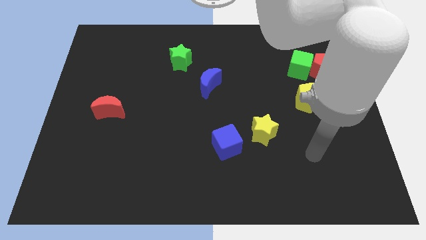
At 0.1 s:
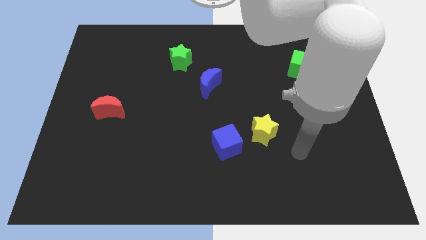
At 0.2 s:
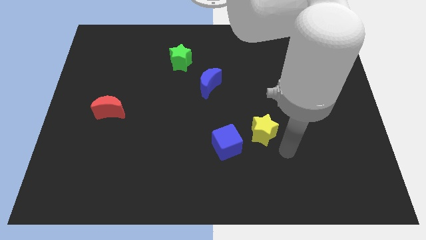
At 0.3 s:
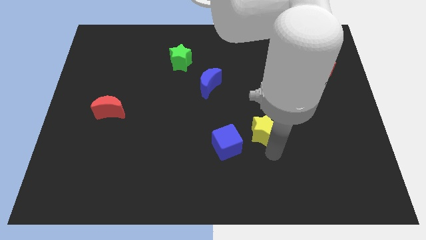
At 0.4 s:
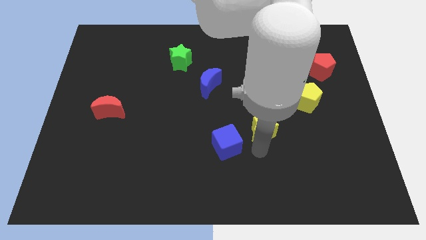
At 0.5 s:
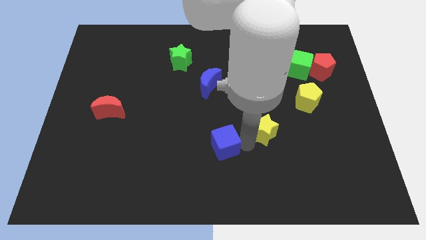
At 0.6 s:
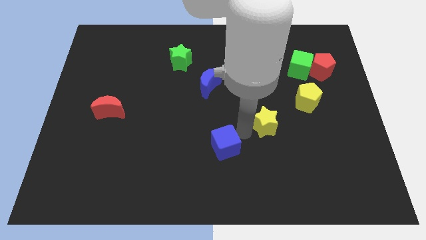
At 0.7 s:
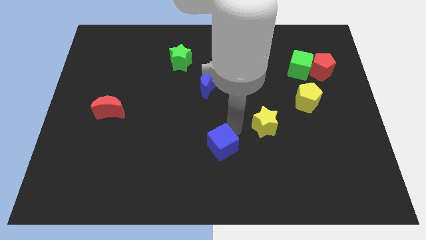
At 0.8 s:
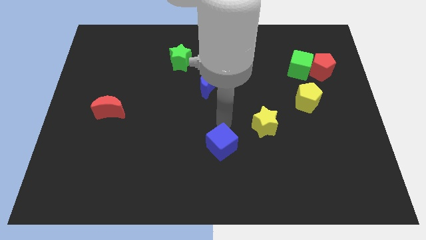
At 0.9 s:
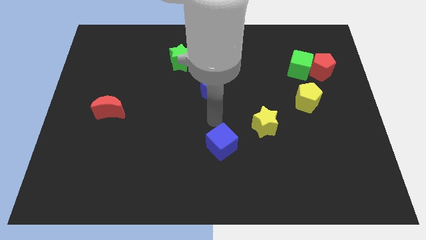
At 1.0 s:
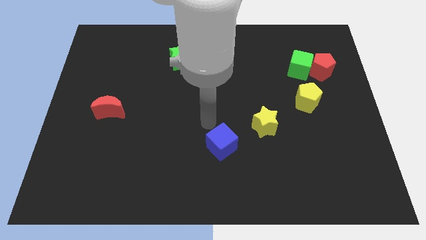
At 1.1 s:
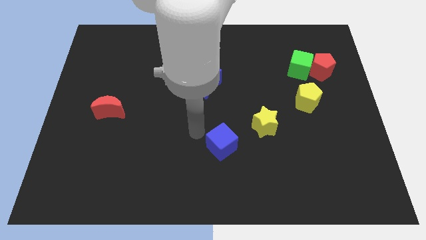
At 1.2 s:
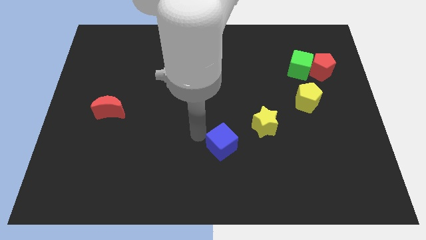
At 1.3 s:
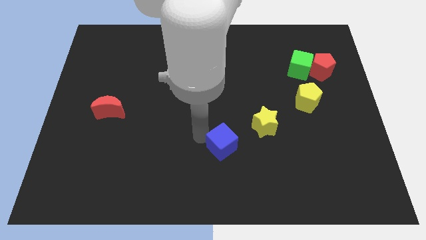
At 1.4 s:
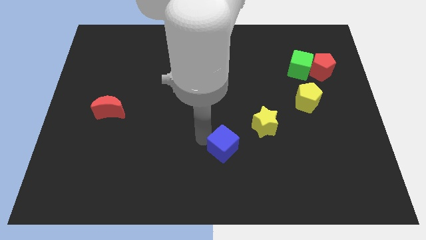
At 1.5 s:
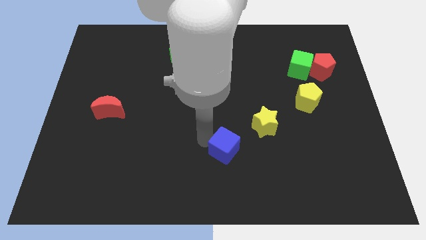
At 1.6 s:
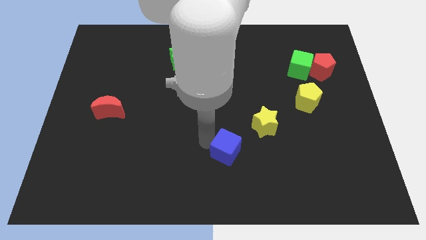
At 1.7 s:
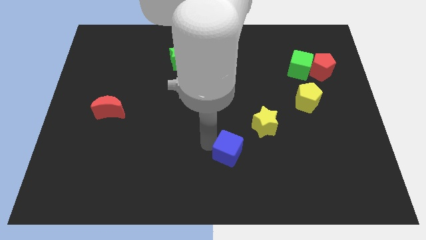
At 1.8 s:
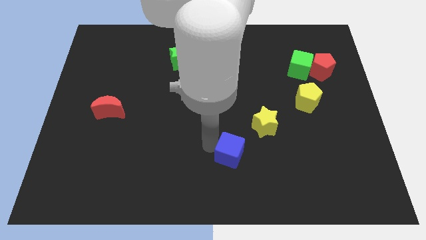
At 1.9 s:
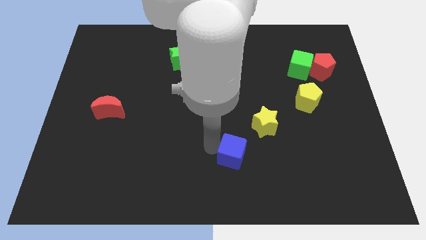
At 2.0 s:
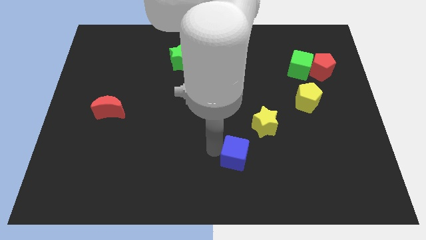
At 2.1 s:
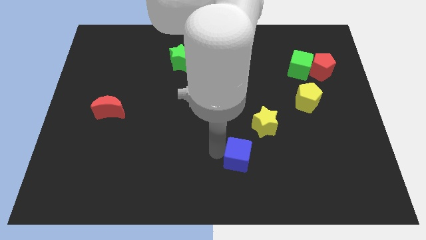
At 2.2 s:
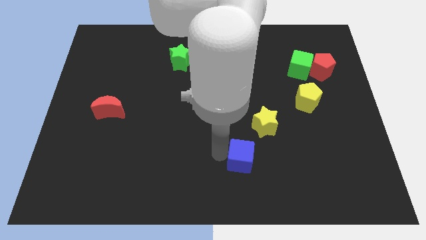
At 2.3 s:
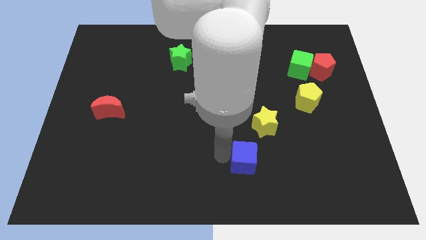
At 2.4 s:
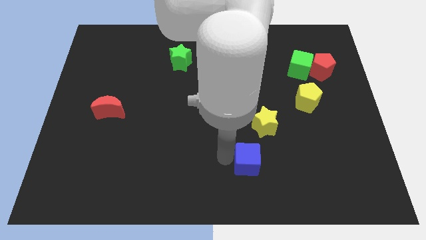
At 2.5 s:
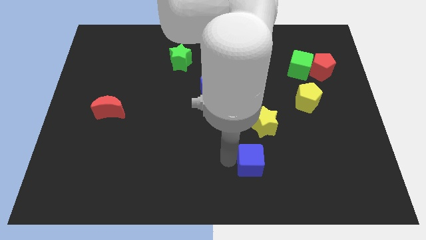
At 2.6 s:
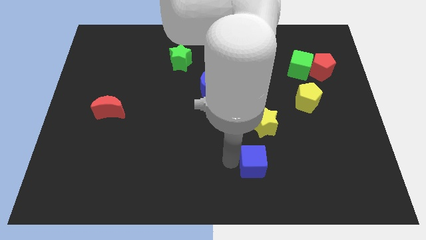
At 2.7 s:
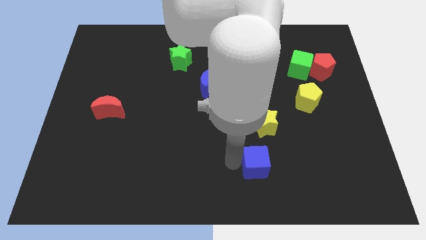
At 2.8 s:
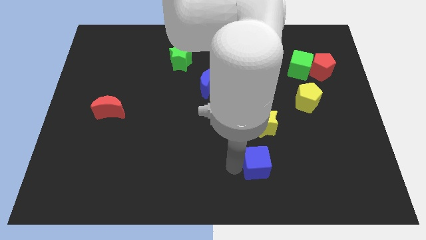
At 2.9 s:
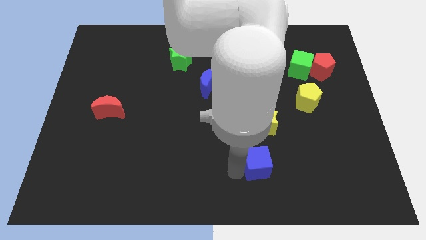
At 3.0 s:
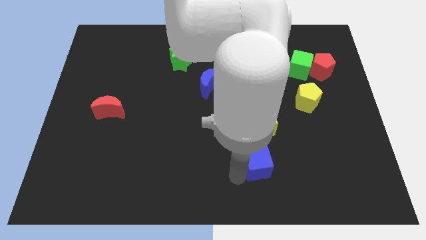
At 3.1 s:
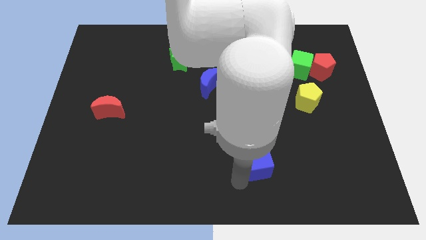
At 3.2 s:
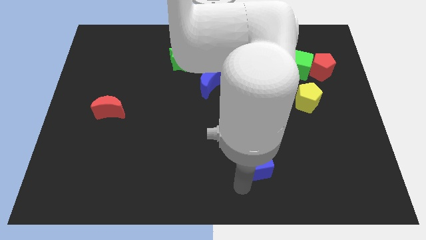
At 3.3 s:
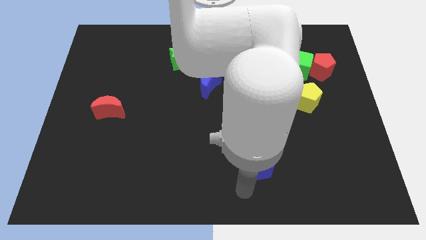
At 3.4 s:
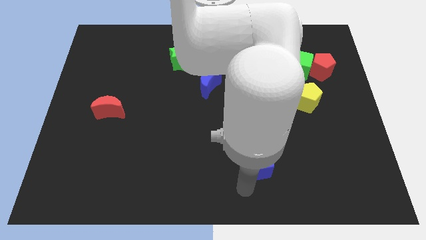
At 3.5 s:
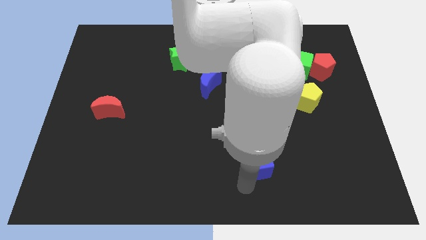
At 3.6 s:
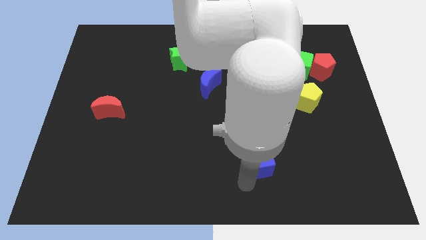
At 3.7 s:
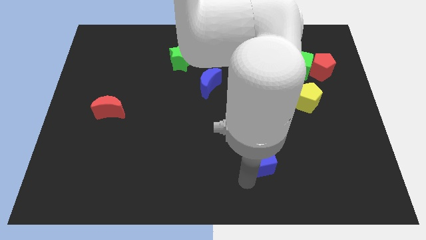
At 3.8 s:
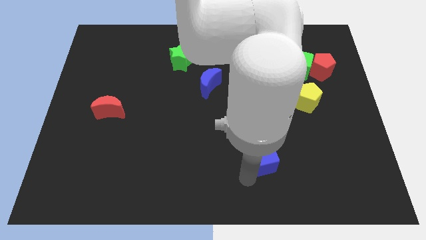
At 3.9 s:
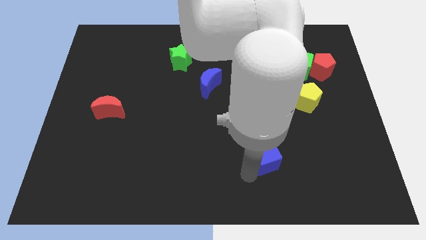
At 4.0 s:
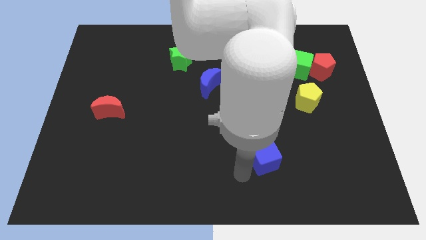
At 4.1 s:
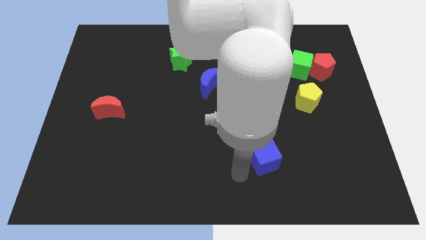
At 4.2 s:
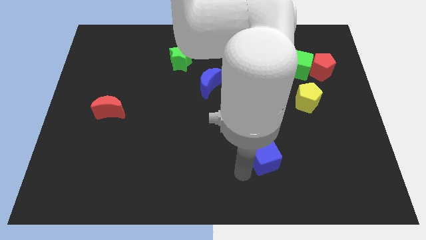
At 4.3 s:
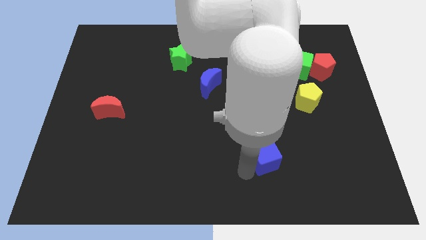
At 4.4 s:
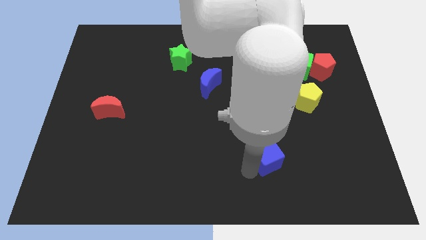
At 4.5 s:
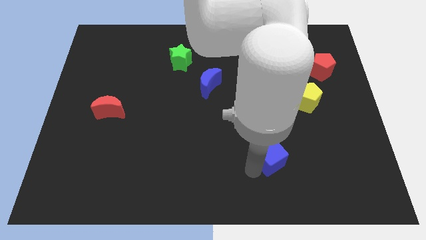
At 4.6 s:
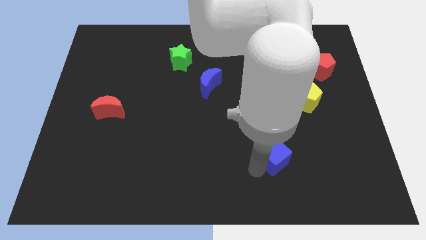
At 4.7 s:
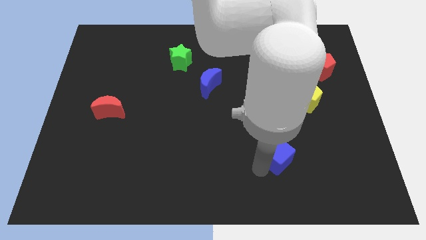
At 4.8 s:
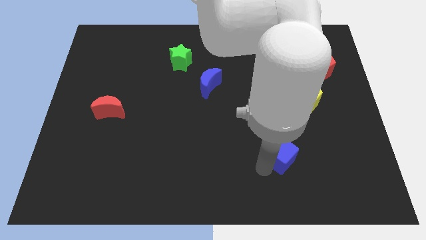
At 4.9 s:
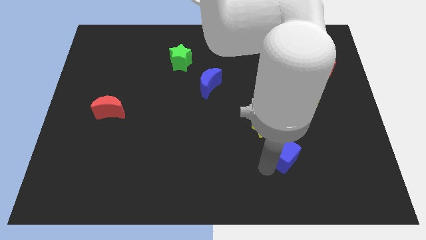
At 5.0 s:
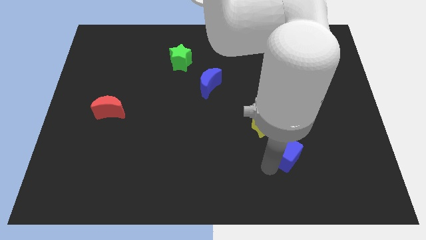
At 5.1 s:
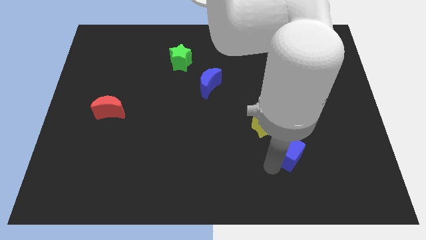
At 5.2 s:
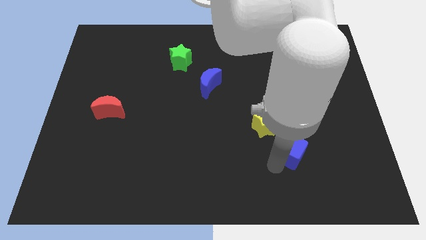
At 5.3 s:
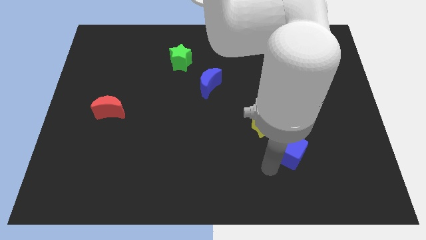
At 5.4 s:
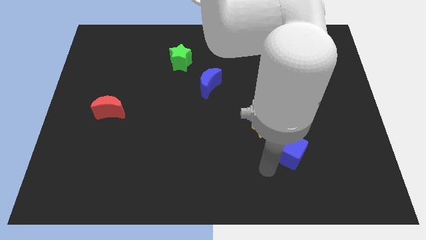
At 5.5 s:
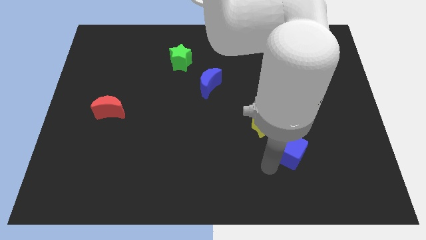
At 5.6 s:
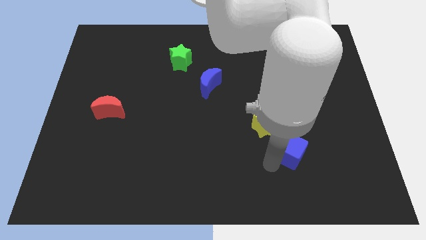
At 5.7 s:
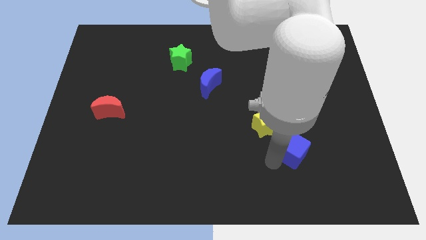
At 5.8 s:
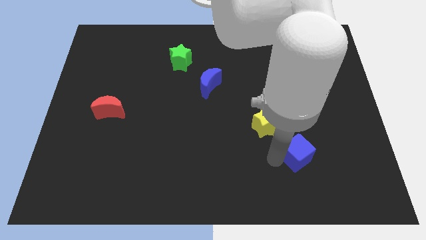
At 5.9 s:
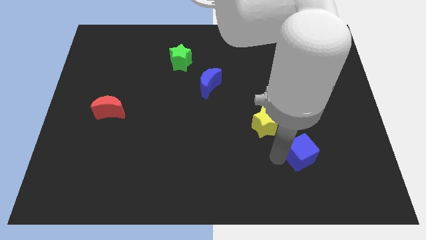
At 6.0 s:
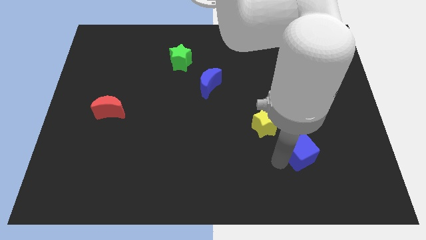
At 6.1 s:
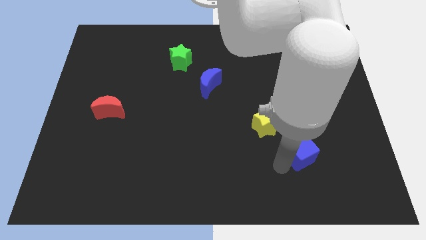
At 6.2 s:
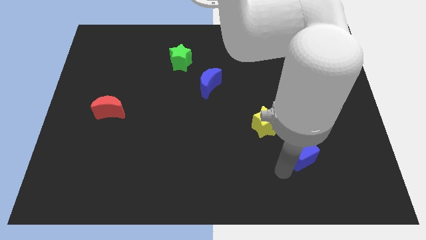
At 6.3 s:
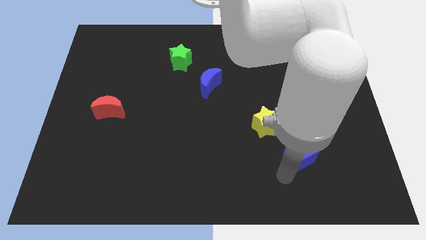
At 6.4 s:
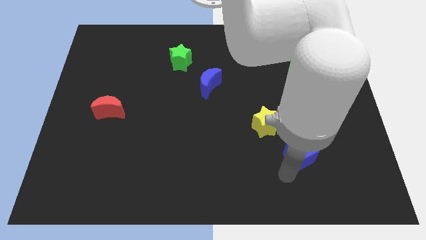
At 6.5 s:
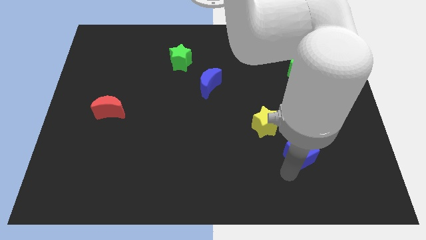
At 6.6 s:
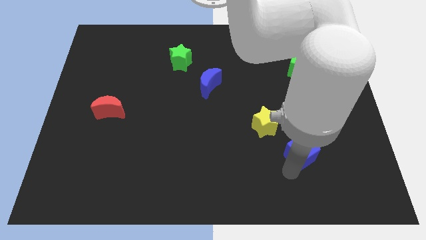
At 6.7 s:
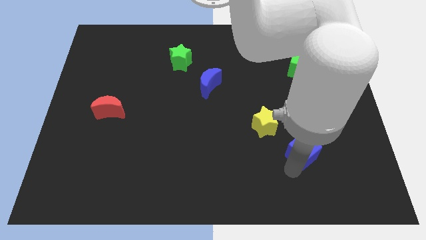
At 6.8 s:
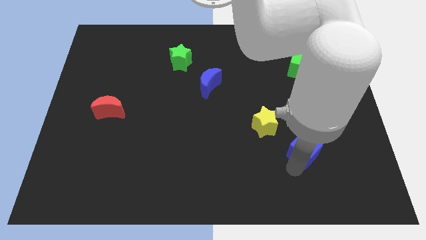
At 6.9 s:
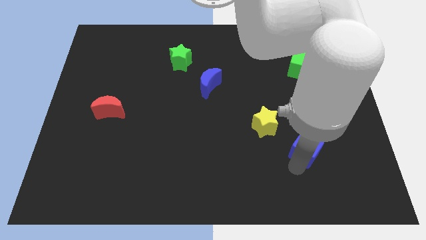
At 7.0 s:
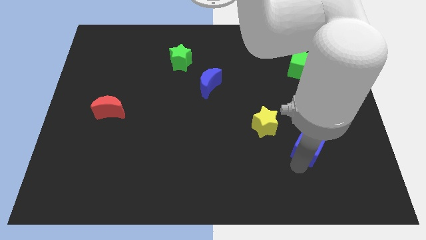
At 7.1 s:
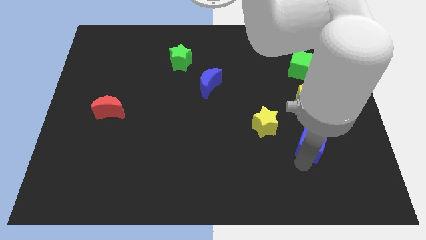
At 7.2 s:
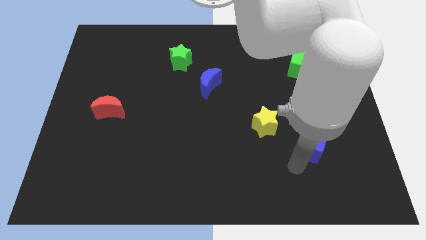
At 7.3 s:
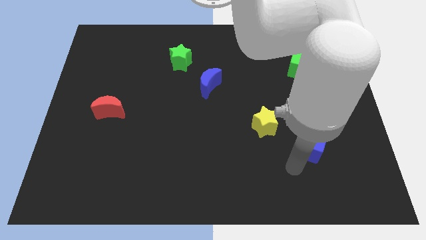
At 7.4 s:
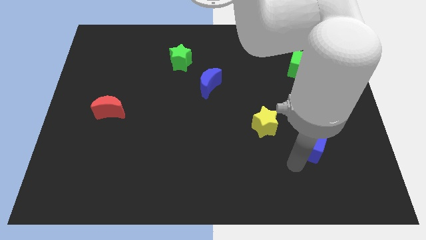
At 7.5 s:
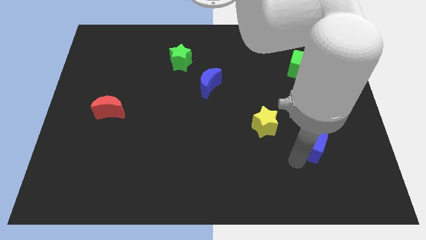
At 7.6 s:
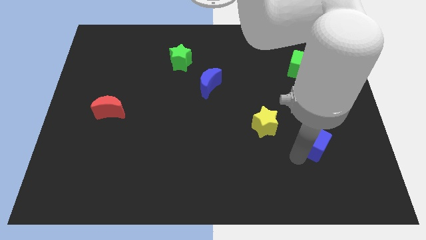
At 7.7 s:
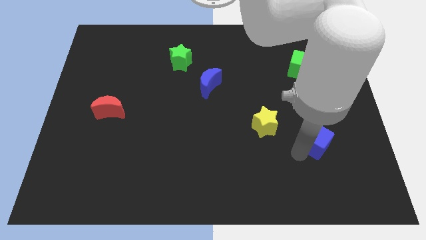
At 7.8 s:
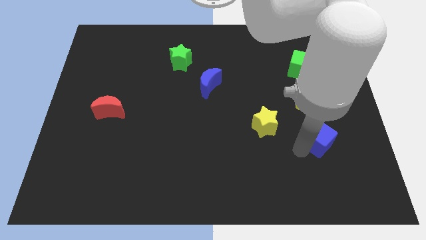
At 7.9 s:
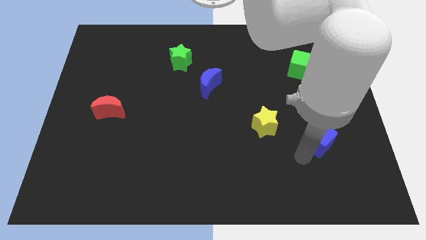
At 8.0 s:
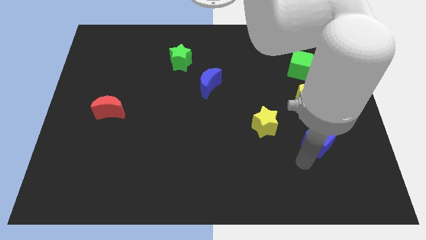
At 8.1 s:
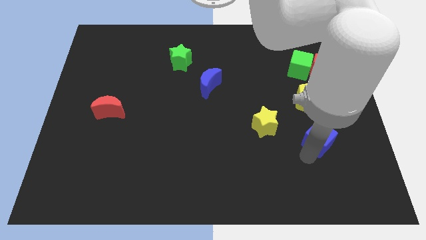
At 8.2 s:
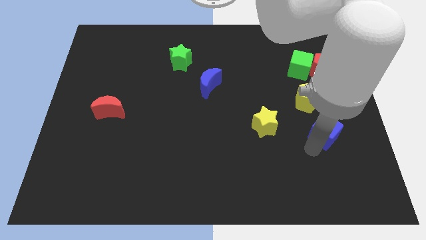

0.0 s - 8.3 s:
push the blue cube to the bottom right side of the yellow pentagon
